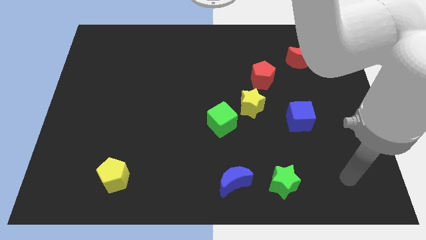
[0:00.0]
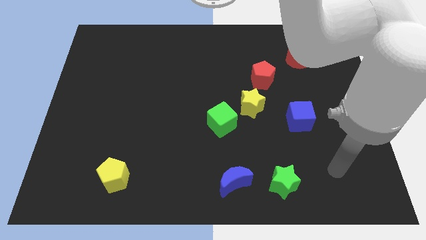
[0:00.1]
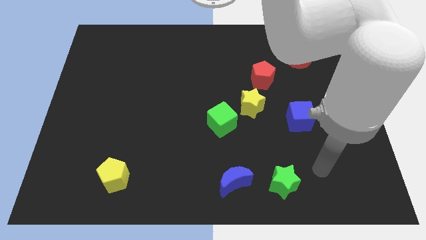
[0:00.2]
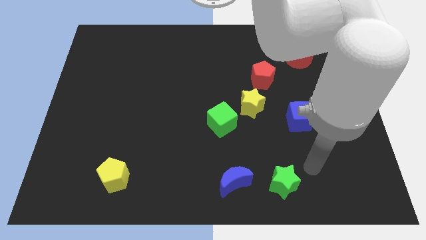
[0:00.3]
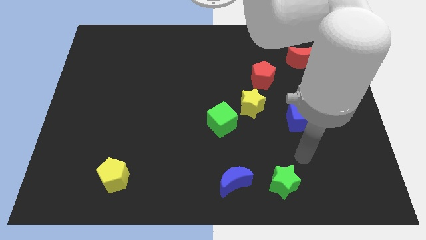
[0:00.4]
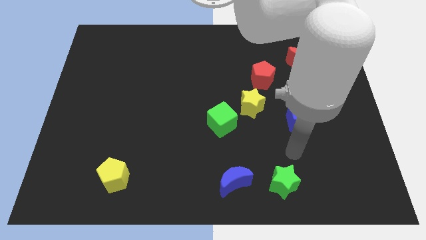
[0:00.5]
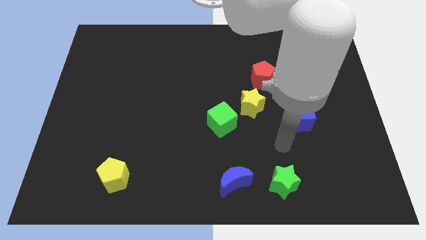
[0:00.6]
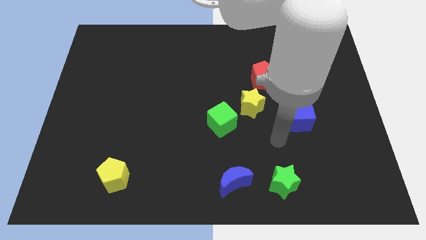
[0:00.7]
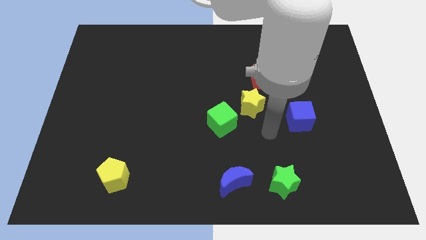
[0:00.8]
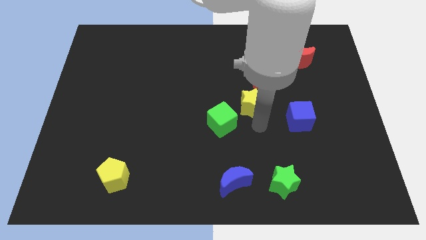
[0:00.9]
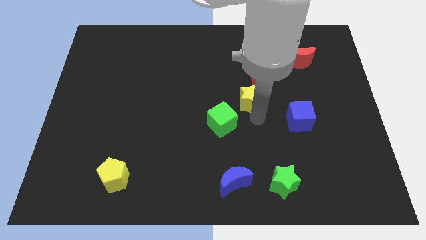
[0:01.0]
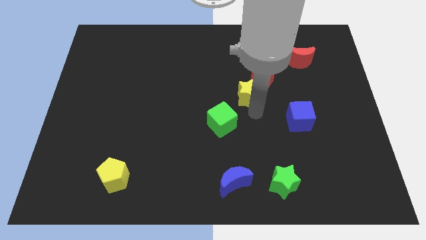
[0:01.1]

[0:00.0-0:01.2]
move the green cube away from the yellow star

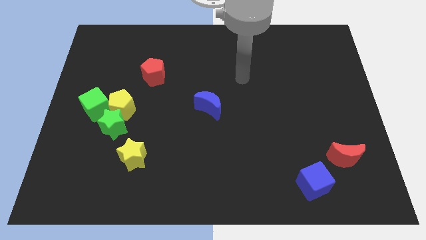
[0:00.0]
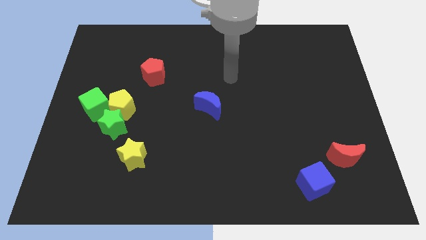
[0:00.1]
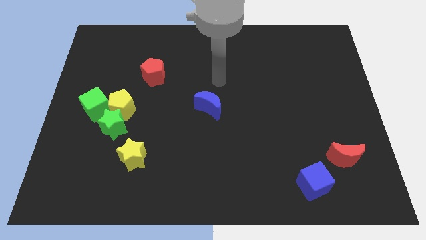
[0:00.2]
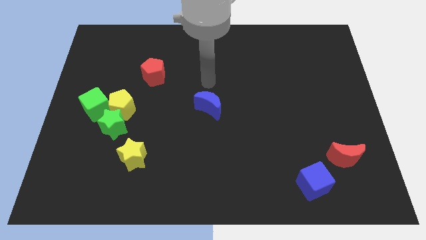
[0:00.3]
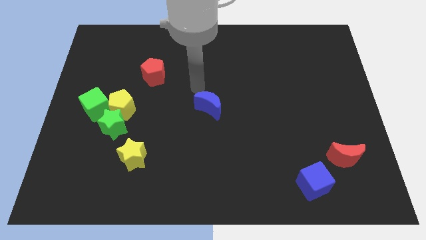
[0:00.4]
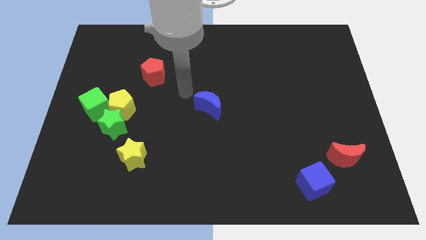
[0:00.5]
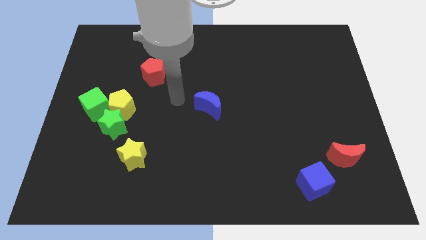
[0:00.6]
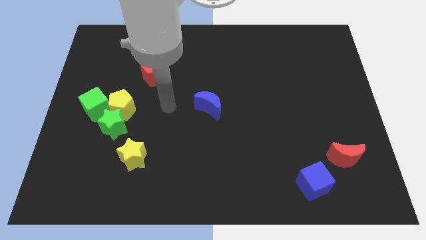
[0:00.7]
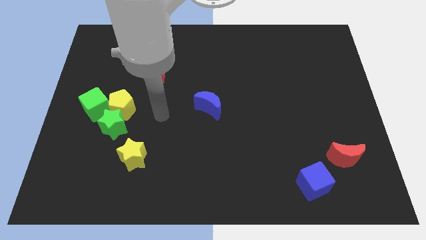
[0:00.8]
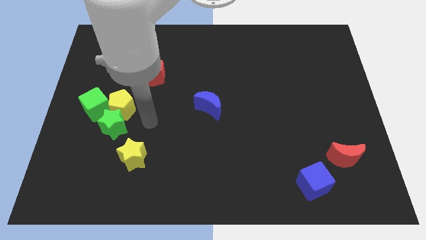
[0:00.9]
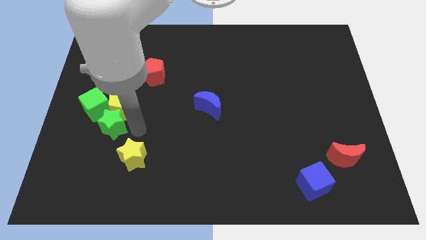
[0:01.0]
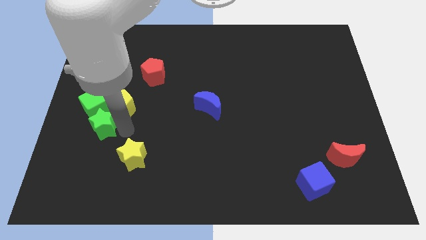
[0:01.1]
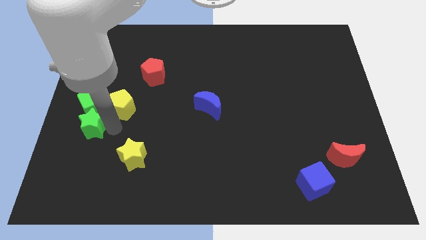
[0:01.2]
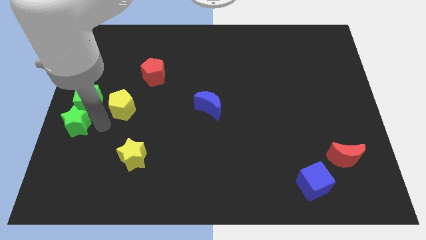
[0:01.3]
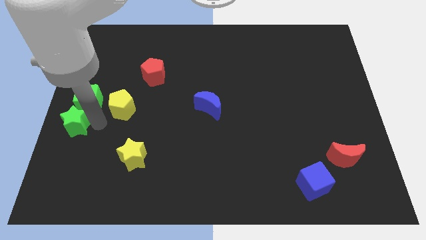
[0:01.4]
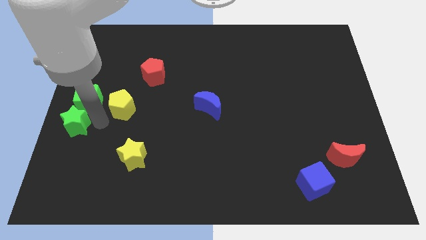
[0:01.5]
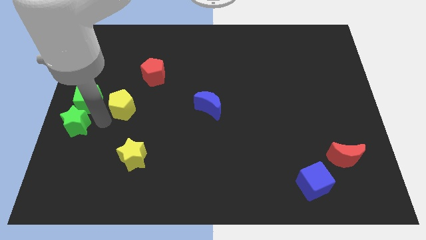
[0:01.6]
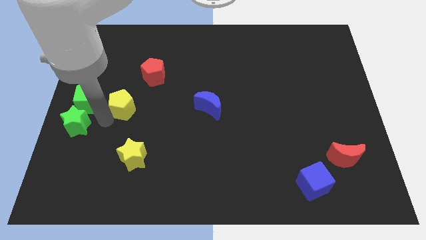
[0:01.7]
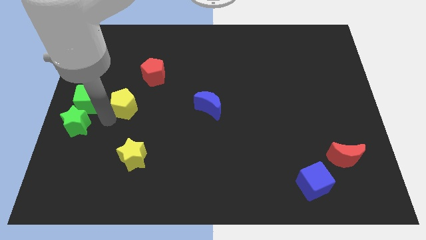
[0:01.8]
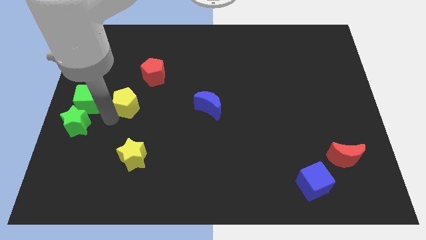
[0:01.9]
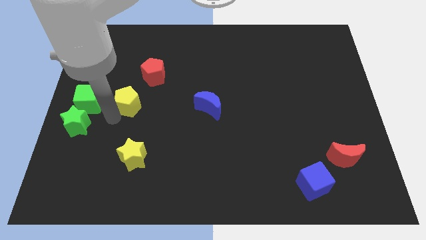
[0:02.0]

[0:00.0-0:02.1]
separate the yellow pentagon from the green star and green cube

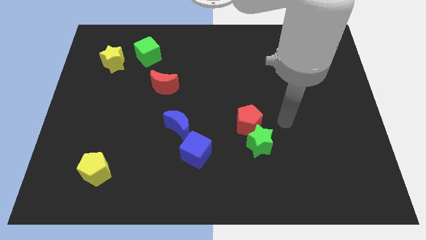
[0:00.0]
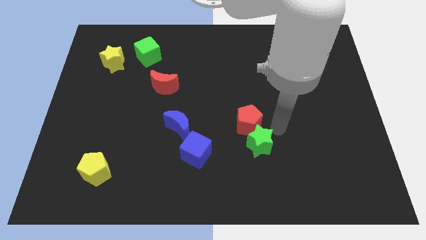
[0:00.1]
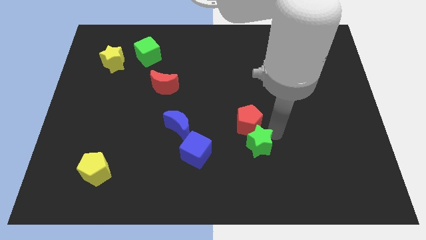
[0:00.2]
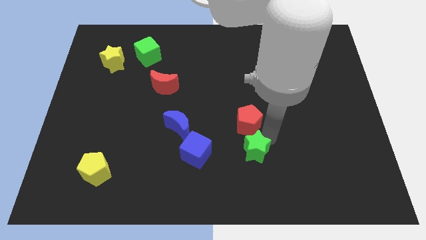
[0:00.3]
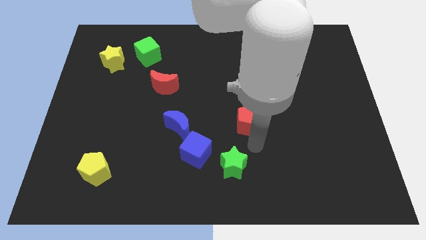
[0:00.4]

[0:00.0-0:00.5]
separate the red pentagon from the green star

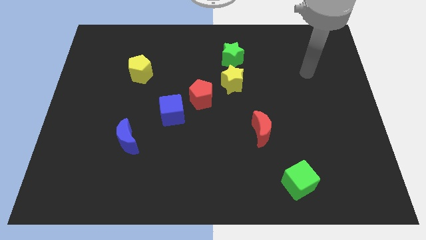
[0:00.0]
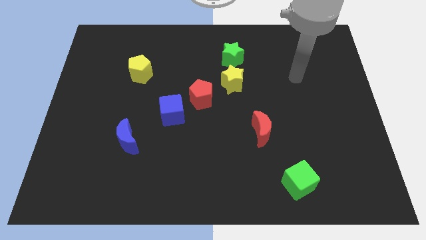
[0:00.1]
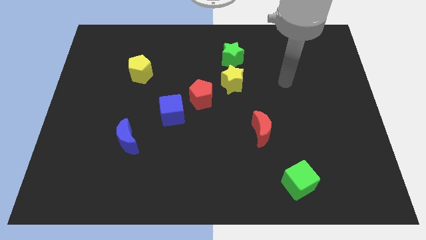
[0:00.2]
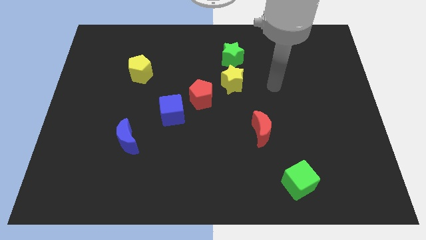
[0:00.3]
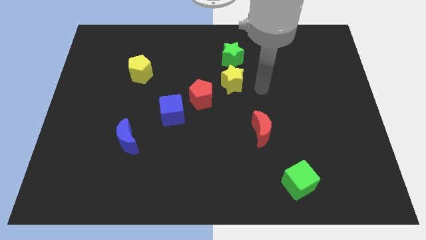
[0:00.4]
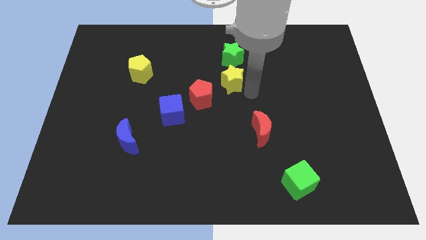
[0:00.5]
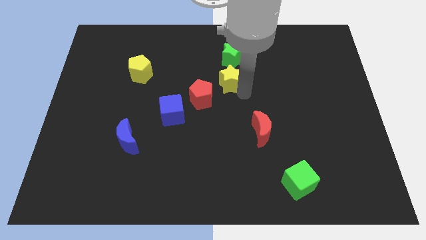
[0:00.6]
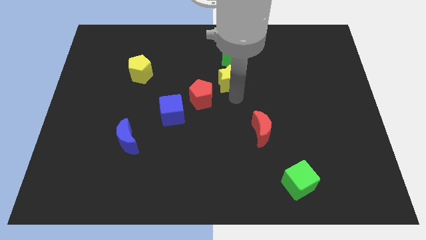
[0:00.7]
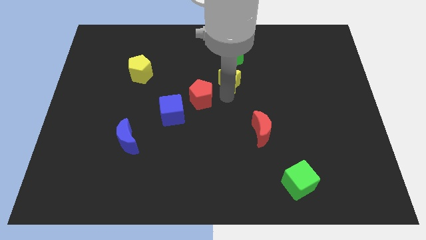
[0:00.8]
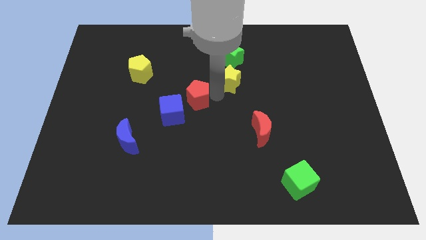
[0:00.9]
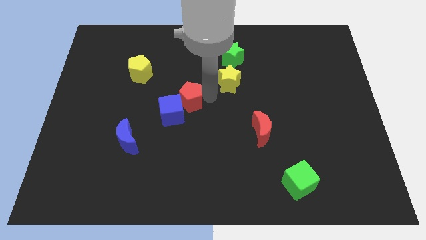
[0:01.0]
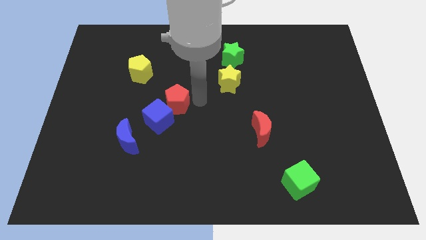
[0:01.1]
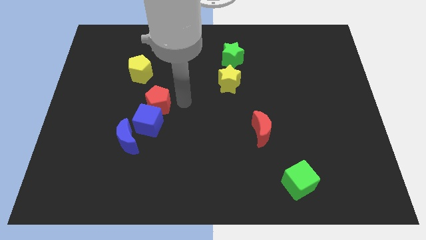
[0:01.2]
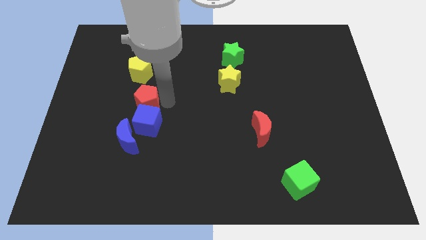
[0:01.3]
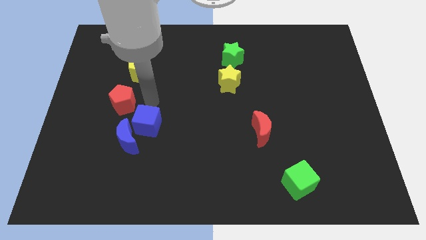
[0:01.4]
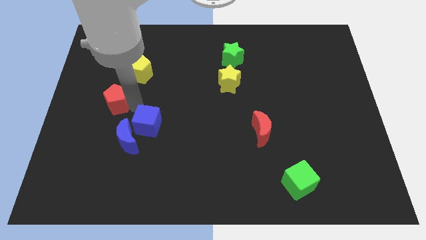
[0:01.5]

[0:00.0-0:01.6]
move the blue cube away from the red pentagon

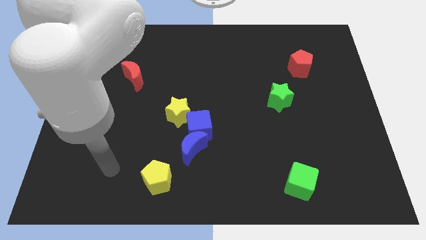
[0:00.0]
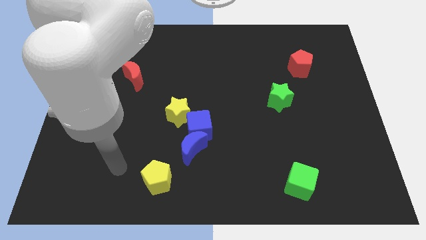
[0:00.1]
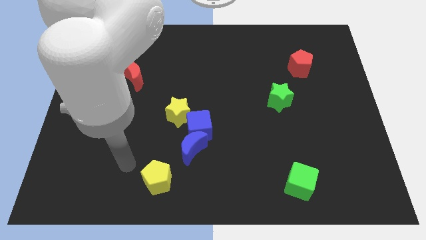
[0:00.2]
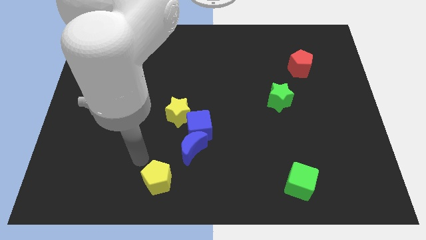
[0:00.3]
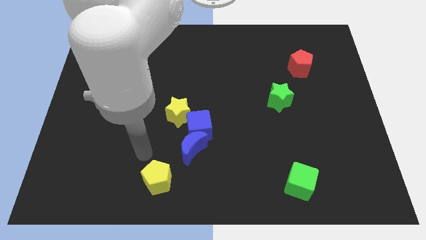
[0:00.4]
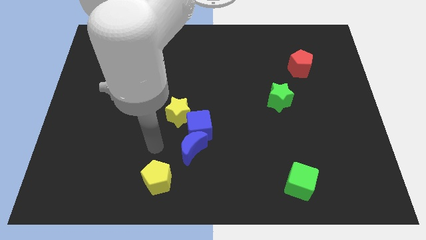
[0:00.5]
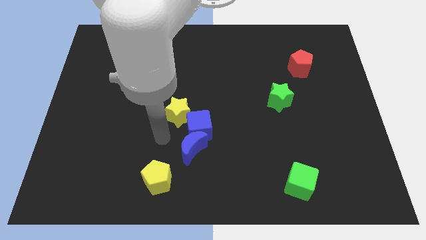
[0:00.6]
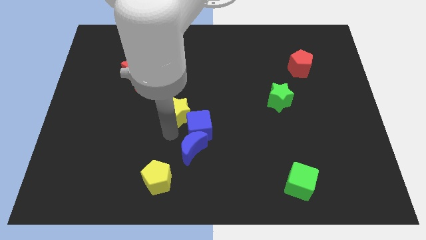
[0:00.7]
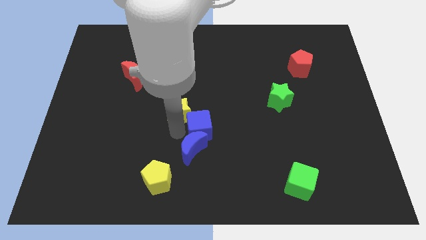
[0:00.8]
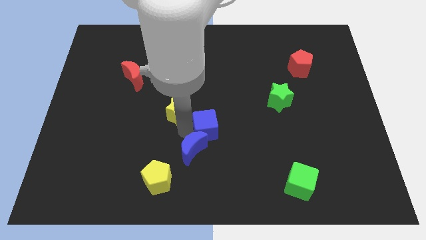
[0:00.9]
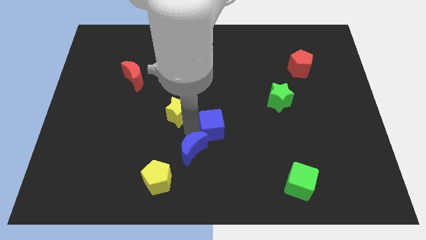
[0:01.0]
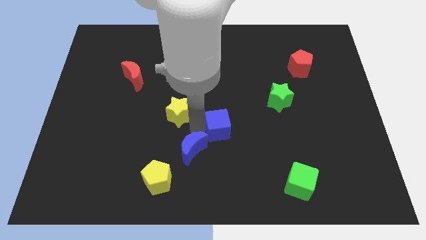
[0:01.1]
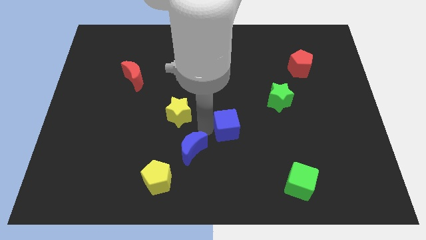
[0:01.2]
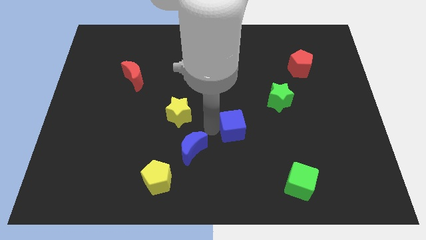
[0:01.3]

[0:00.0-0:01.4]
move the blue cube away from the blue moon and yellow star

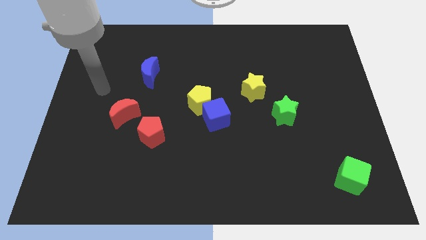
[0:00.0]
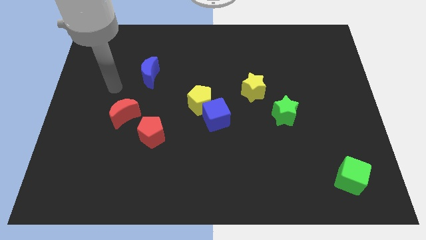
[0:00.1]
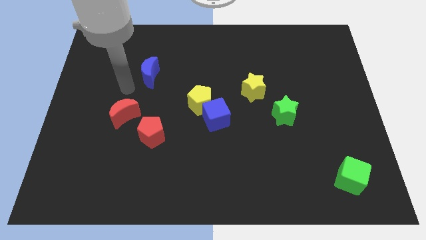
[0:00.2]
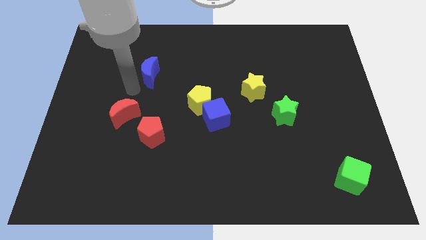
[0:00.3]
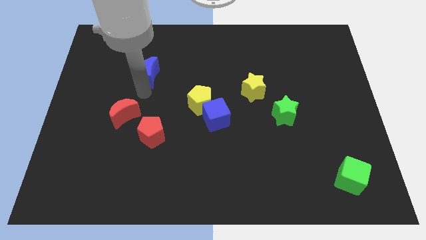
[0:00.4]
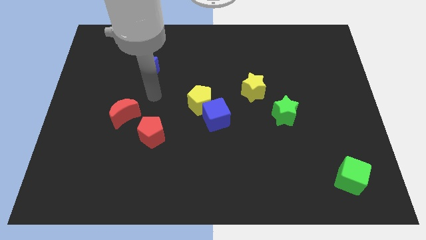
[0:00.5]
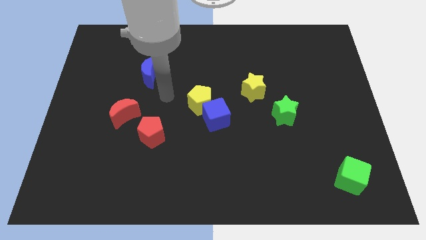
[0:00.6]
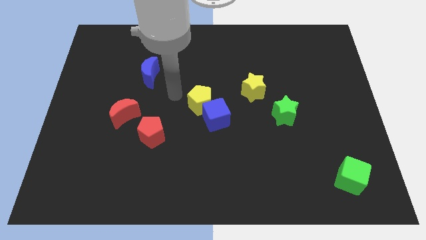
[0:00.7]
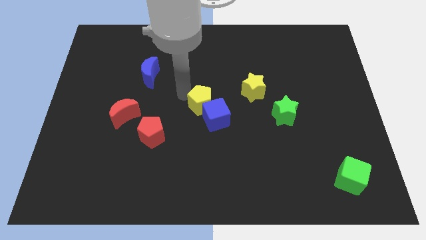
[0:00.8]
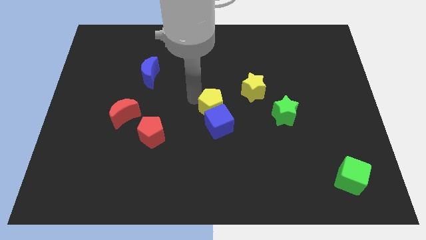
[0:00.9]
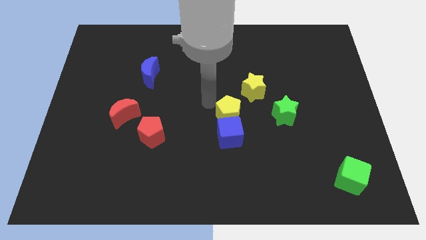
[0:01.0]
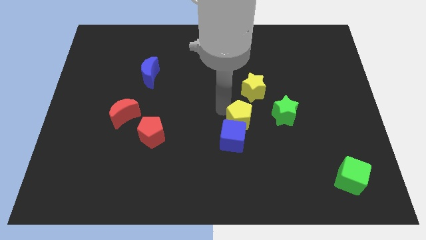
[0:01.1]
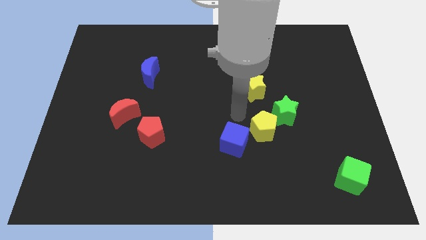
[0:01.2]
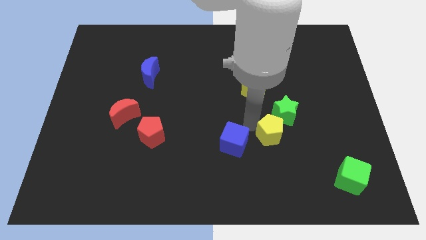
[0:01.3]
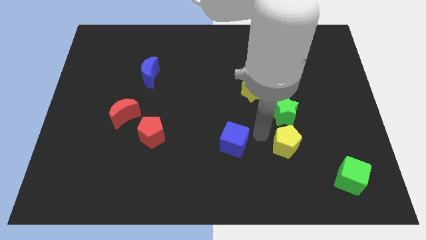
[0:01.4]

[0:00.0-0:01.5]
separate the blue cube from the yellow pentagon

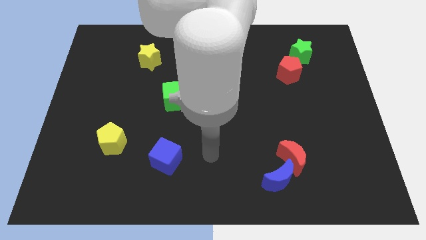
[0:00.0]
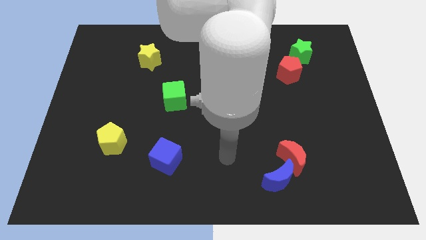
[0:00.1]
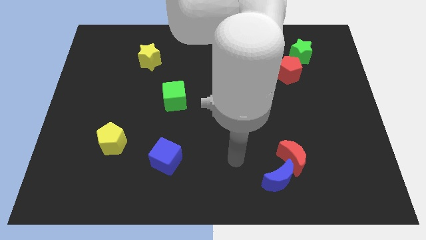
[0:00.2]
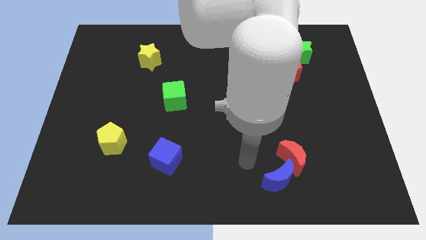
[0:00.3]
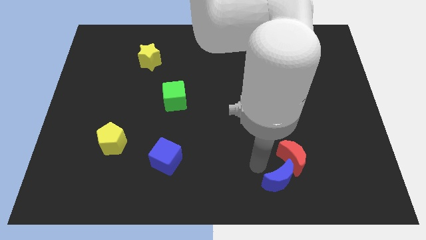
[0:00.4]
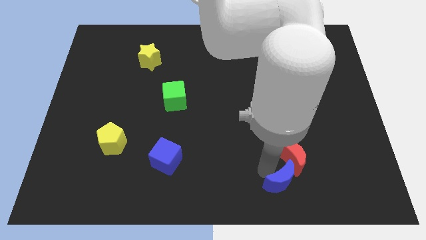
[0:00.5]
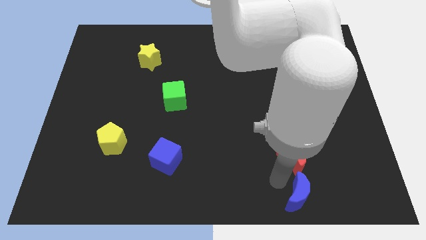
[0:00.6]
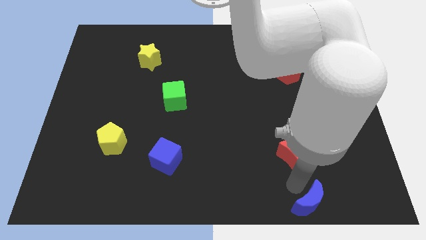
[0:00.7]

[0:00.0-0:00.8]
pull the red moon apart from the blue moon
